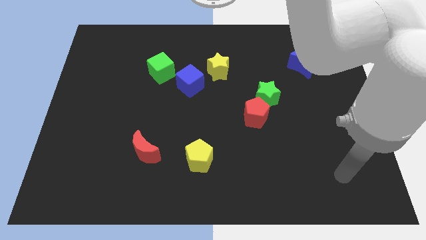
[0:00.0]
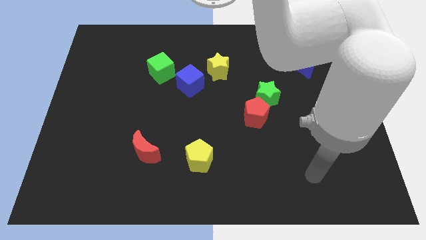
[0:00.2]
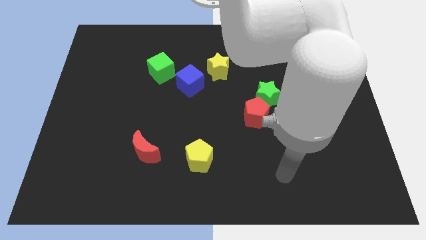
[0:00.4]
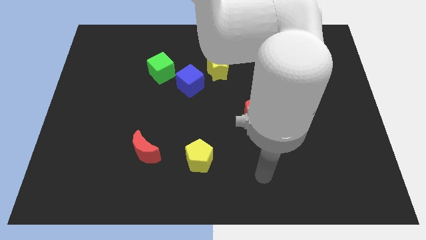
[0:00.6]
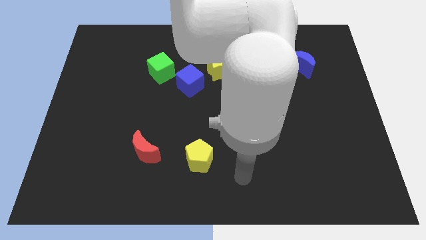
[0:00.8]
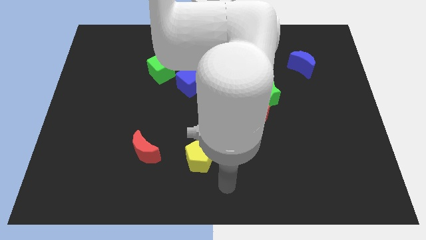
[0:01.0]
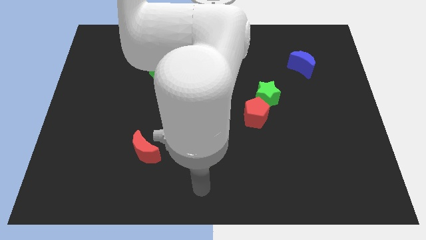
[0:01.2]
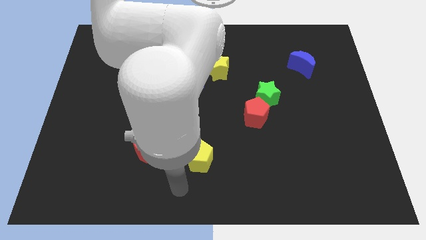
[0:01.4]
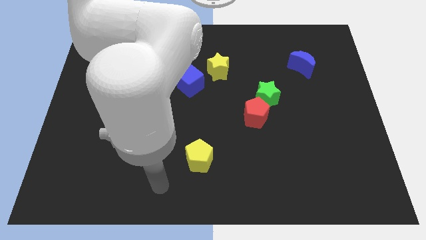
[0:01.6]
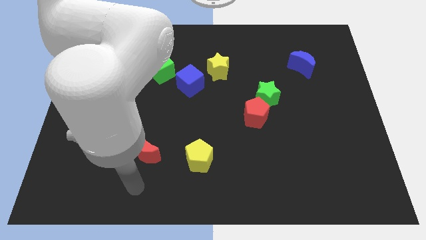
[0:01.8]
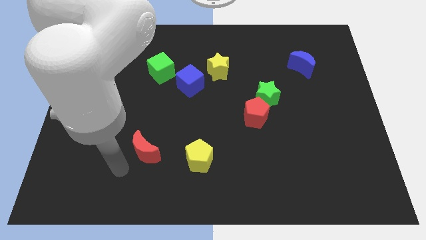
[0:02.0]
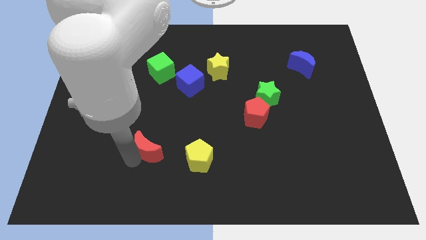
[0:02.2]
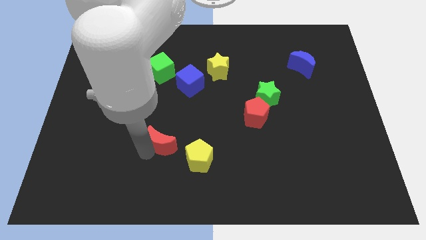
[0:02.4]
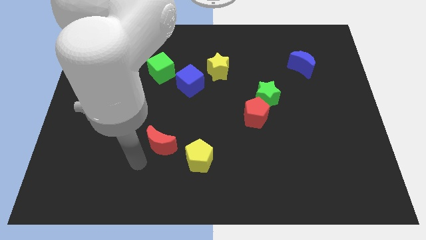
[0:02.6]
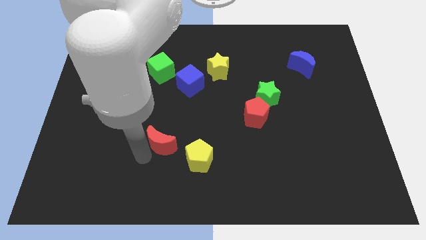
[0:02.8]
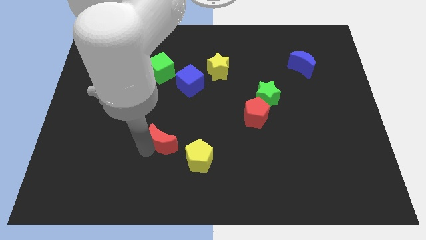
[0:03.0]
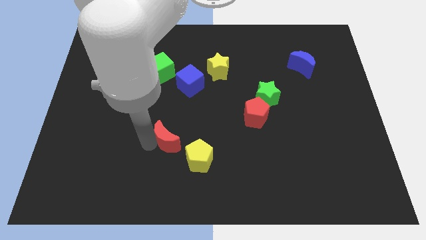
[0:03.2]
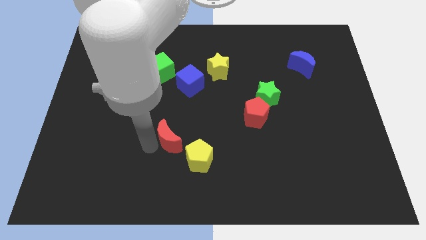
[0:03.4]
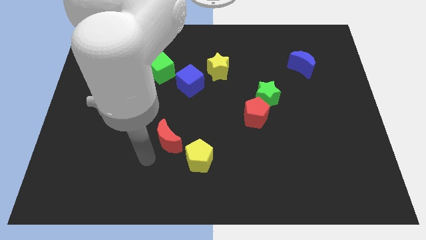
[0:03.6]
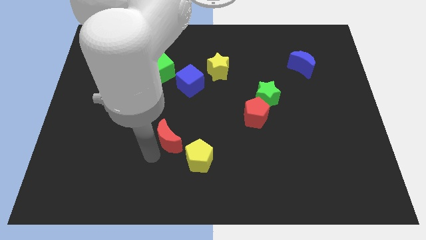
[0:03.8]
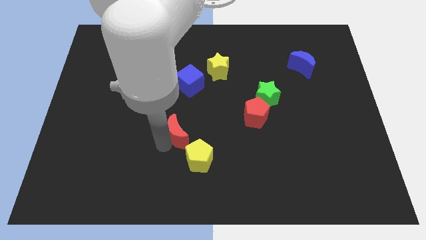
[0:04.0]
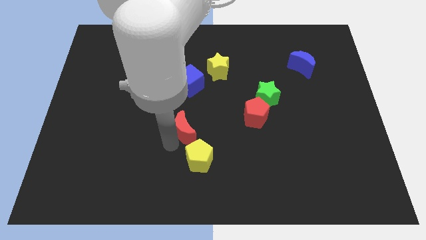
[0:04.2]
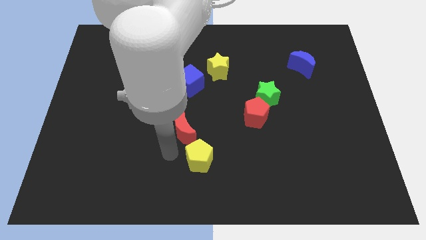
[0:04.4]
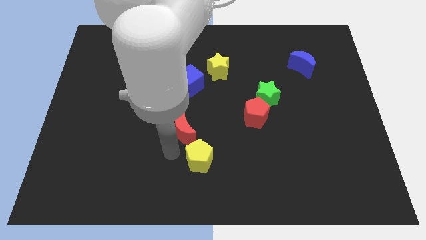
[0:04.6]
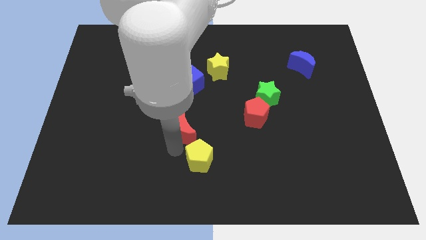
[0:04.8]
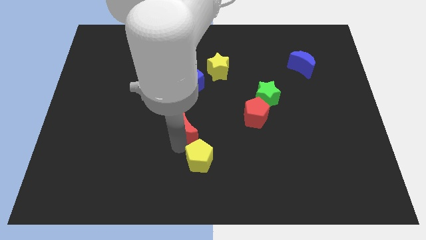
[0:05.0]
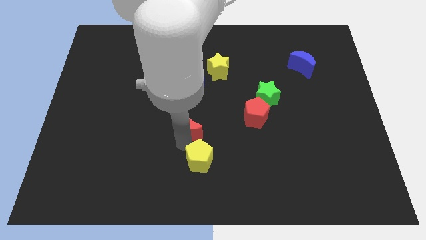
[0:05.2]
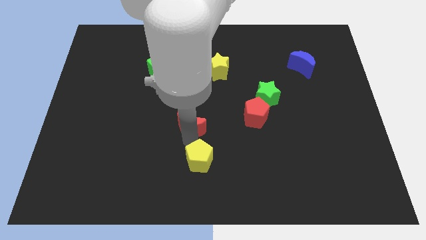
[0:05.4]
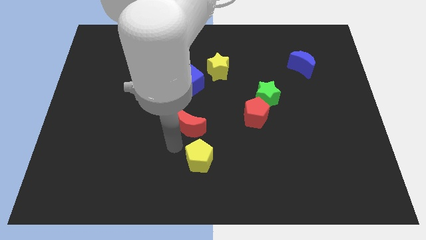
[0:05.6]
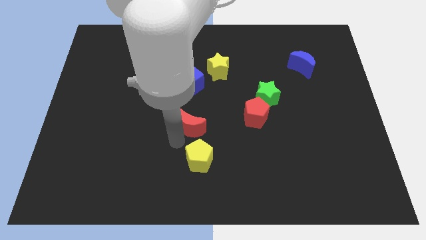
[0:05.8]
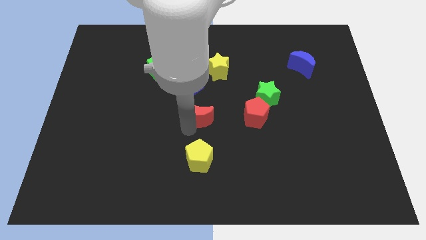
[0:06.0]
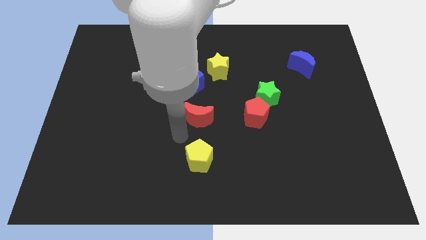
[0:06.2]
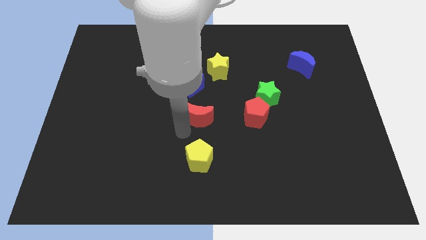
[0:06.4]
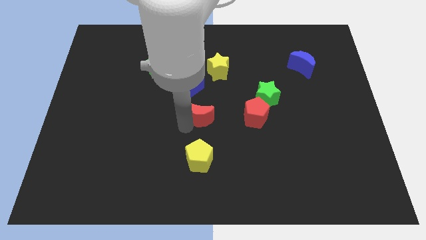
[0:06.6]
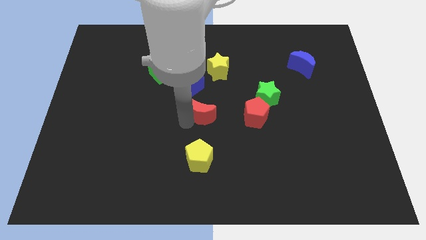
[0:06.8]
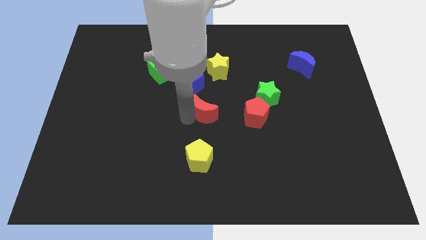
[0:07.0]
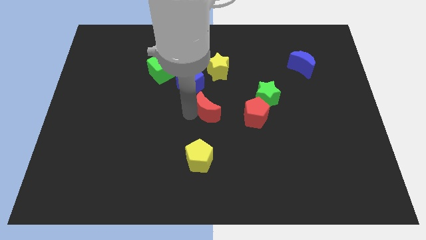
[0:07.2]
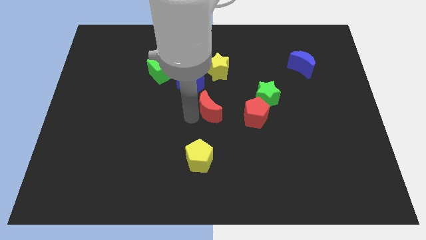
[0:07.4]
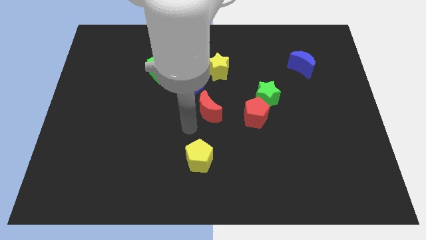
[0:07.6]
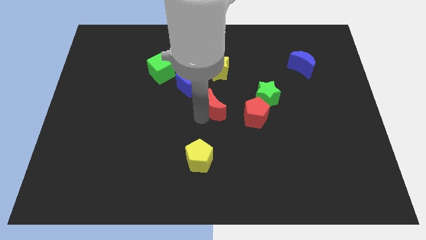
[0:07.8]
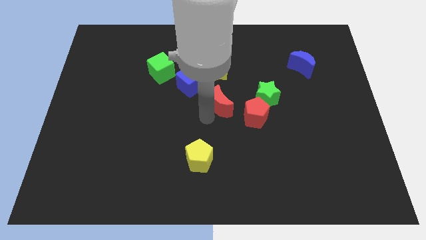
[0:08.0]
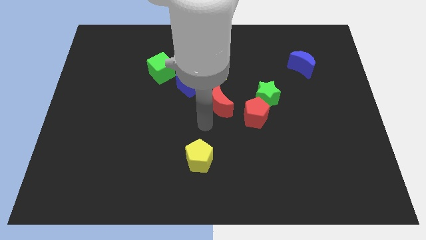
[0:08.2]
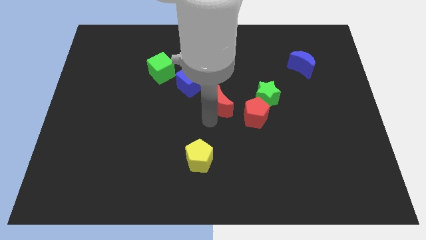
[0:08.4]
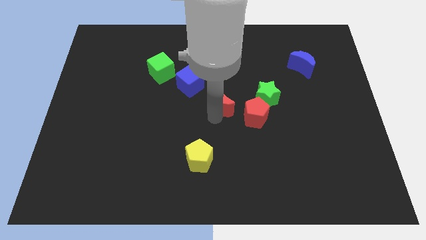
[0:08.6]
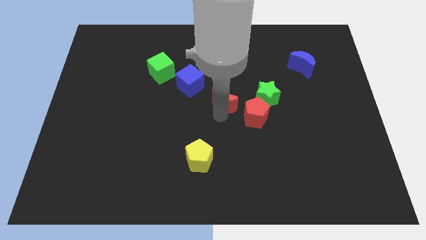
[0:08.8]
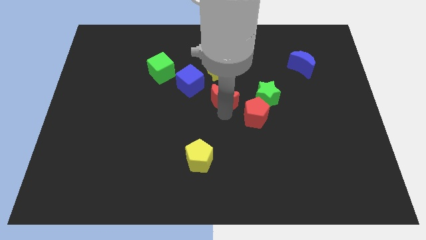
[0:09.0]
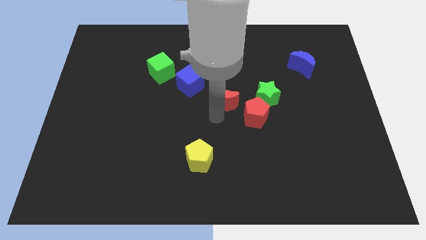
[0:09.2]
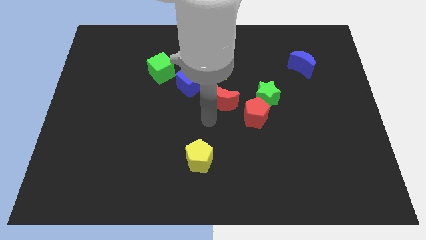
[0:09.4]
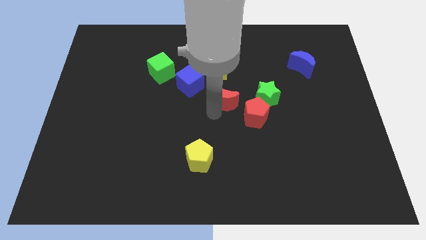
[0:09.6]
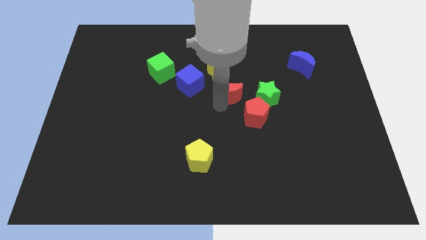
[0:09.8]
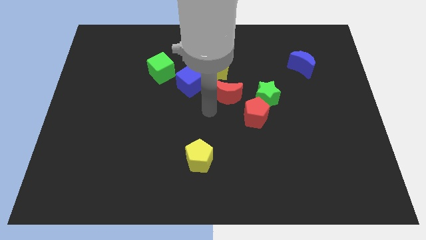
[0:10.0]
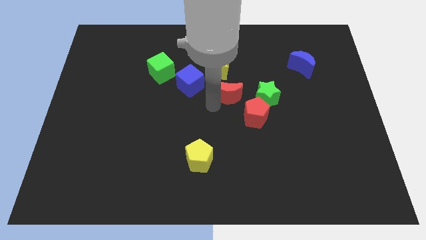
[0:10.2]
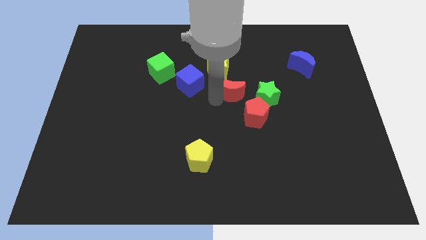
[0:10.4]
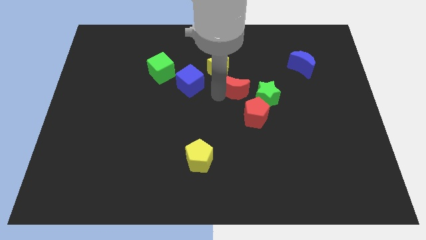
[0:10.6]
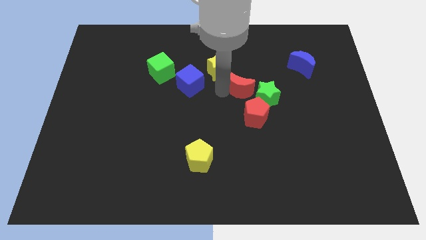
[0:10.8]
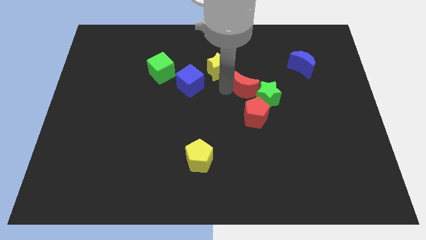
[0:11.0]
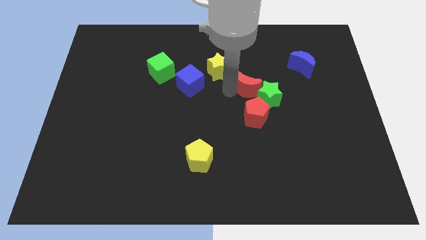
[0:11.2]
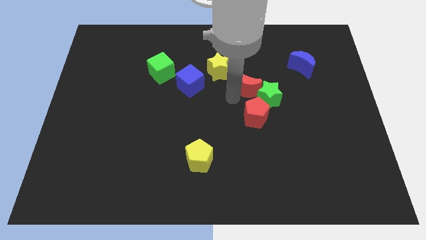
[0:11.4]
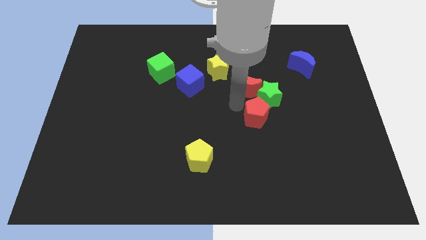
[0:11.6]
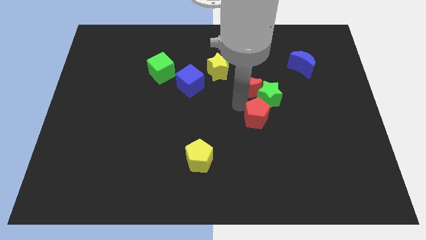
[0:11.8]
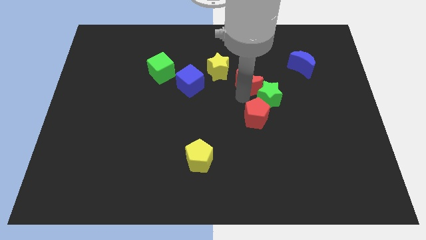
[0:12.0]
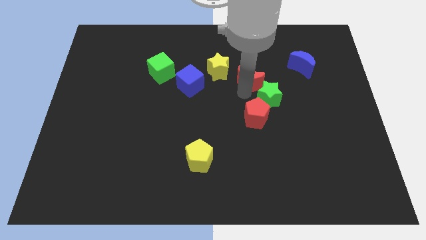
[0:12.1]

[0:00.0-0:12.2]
move the red moon to the right side of the yellow star

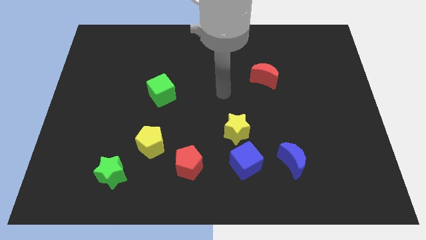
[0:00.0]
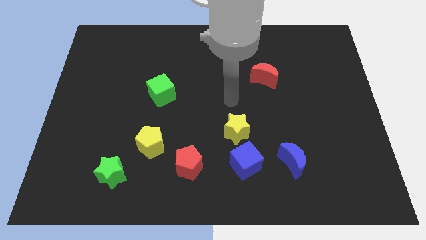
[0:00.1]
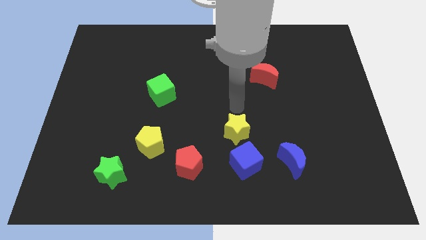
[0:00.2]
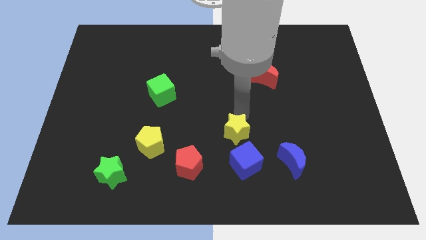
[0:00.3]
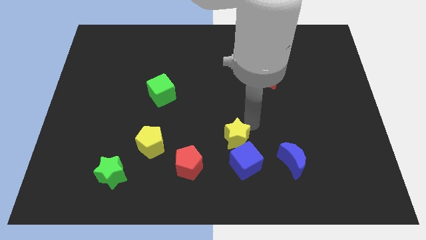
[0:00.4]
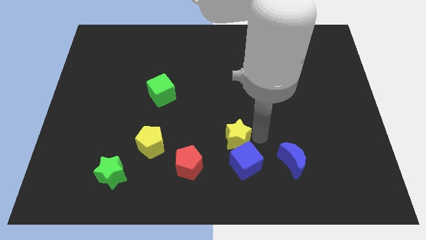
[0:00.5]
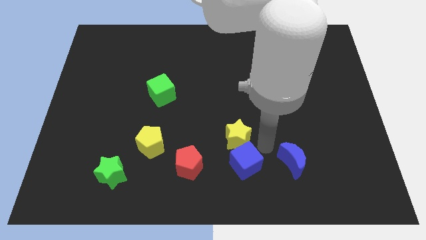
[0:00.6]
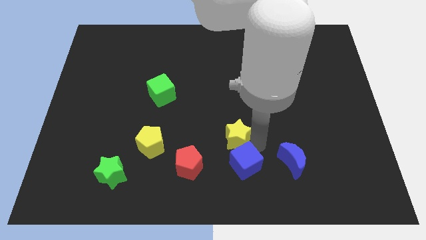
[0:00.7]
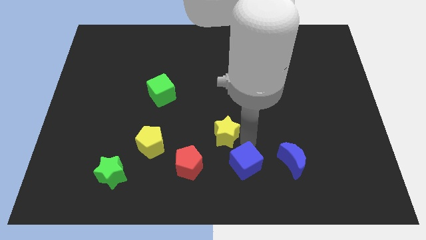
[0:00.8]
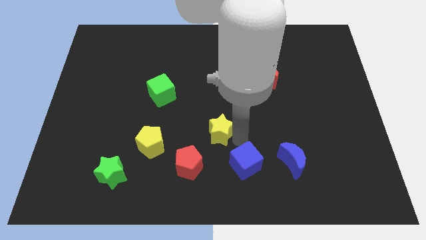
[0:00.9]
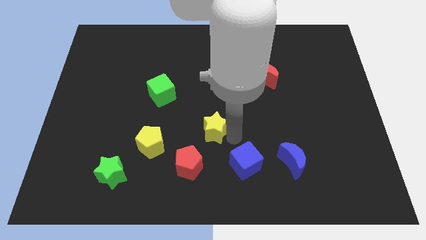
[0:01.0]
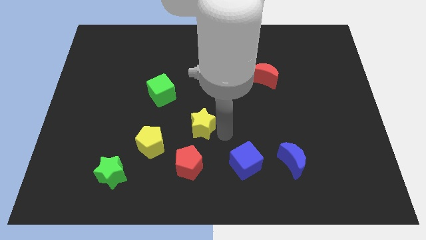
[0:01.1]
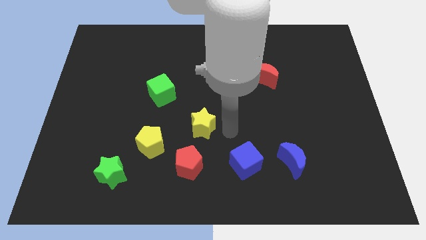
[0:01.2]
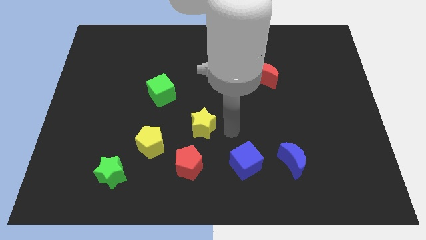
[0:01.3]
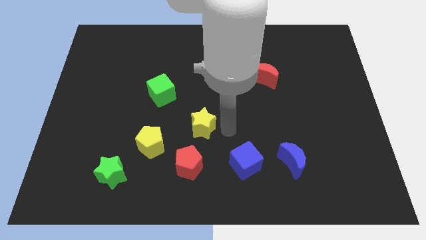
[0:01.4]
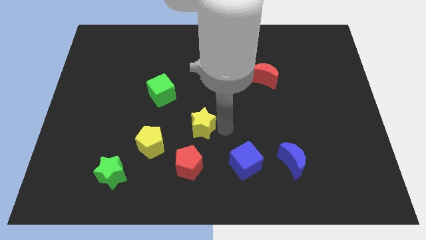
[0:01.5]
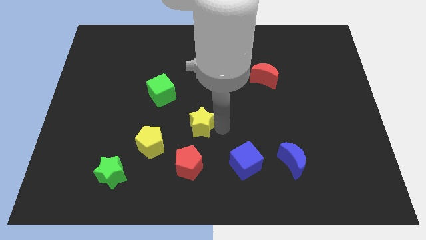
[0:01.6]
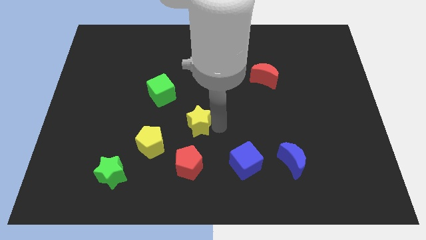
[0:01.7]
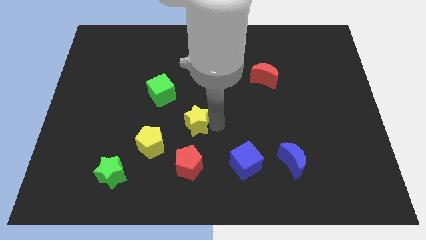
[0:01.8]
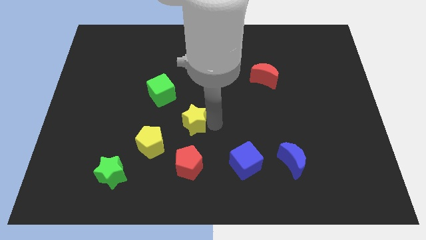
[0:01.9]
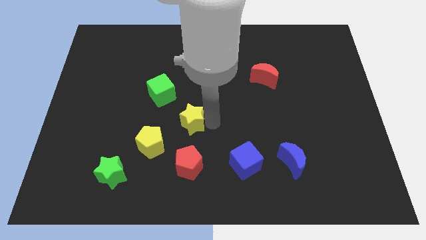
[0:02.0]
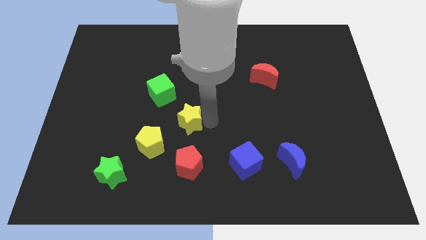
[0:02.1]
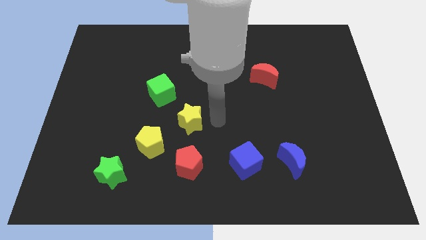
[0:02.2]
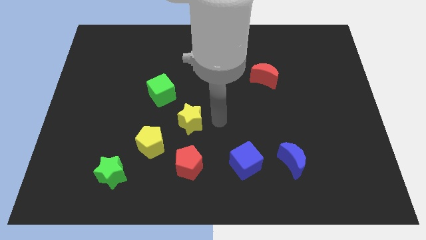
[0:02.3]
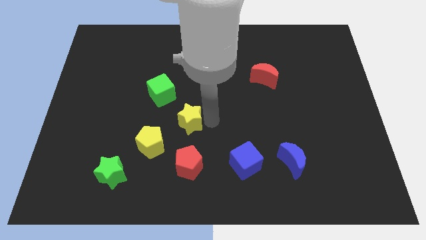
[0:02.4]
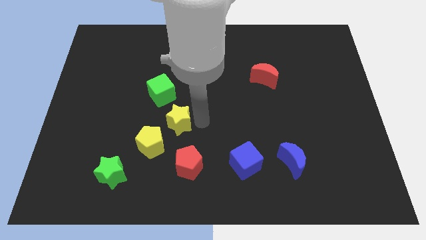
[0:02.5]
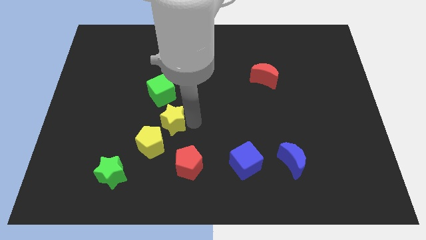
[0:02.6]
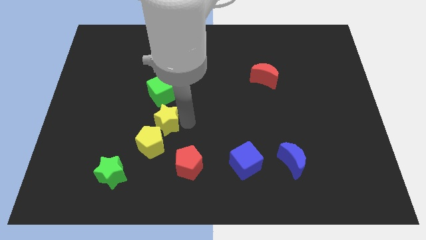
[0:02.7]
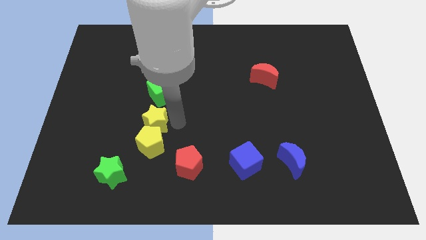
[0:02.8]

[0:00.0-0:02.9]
move the yellow star to the top left side of the yellow pentagon
